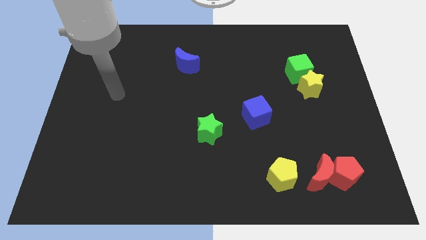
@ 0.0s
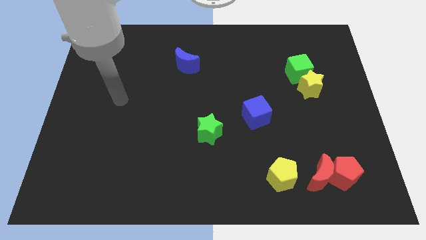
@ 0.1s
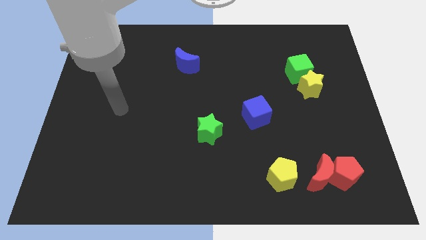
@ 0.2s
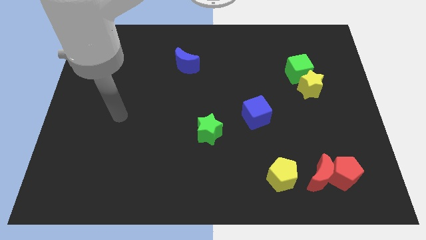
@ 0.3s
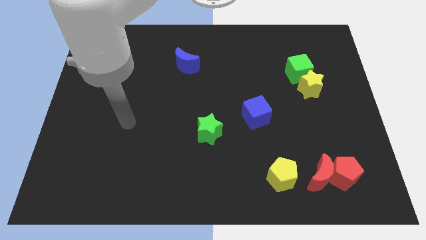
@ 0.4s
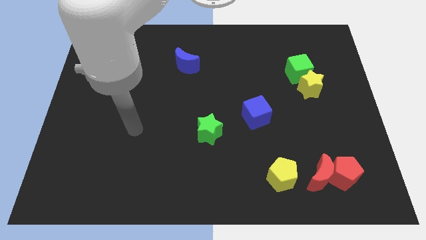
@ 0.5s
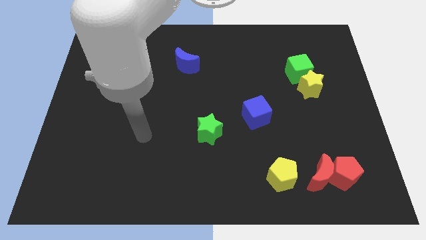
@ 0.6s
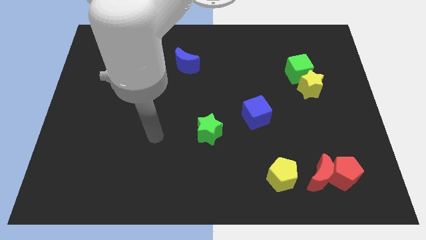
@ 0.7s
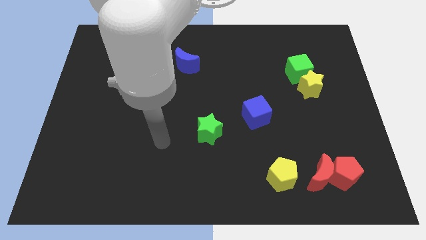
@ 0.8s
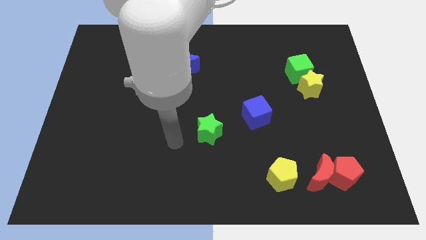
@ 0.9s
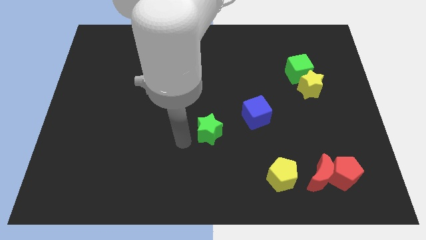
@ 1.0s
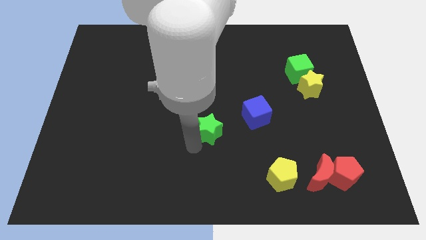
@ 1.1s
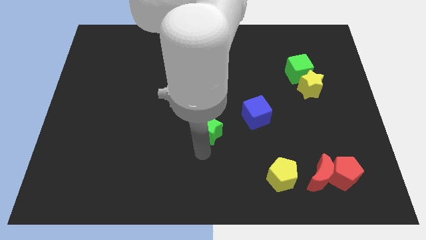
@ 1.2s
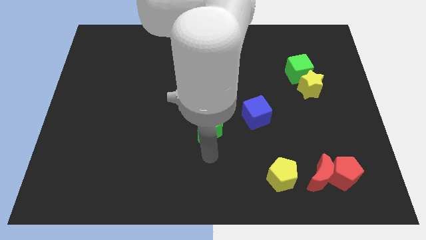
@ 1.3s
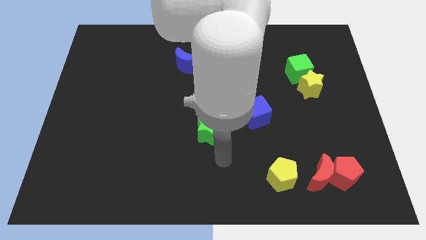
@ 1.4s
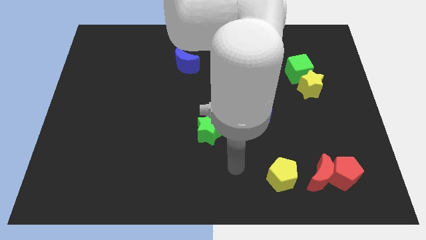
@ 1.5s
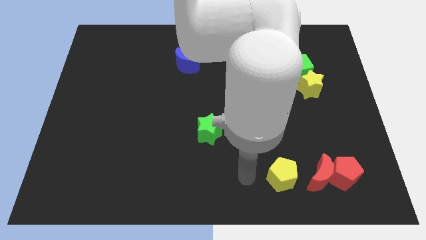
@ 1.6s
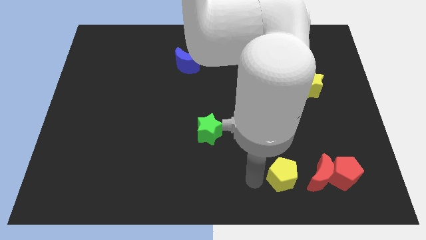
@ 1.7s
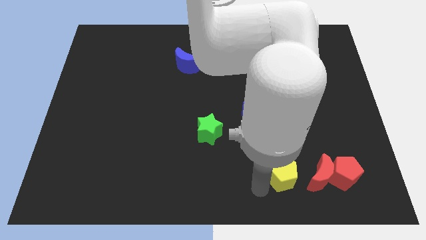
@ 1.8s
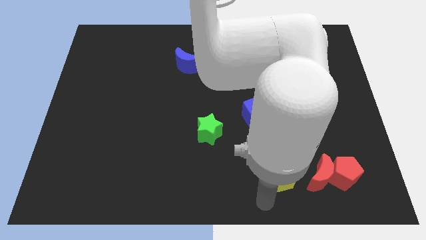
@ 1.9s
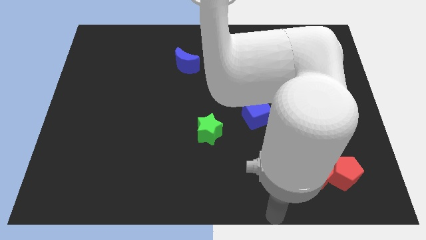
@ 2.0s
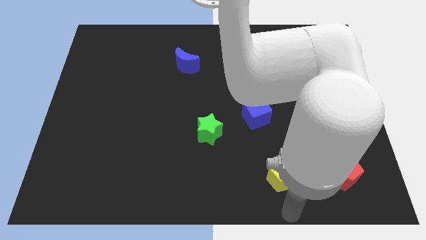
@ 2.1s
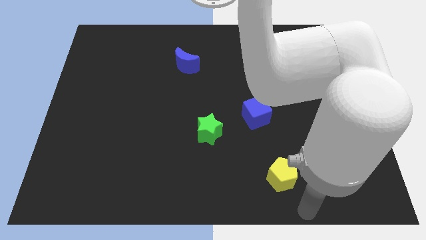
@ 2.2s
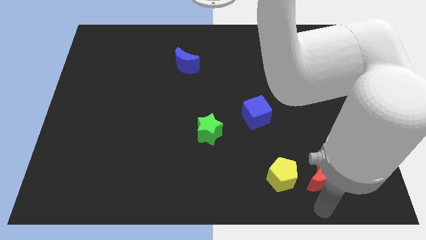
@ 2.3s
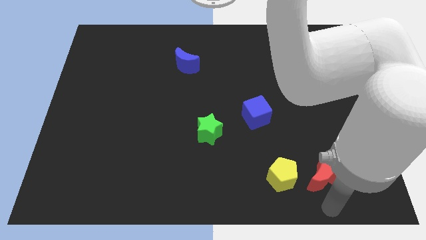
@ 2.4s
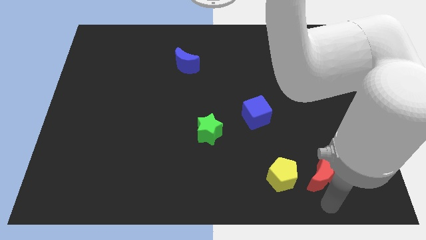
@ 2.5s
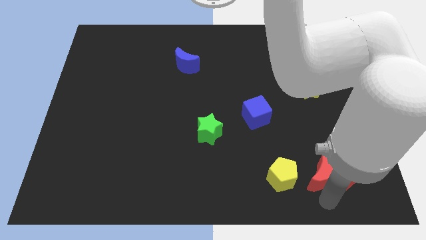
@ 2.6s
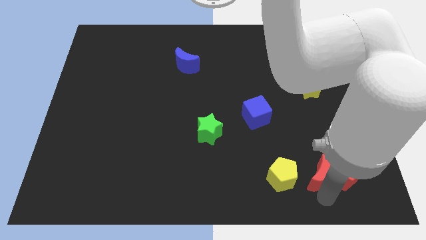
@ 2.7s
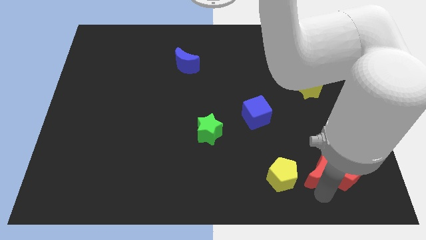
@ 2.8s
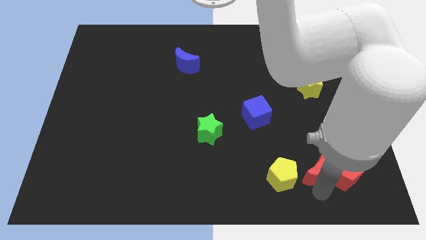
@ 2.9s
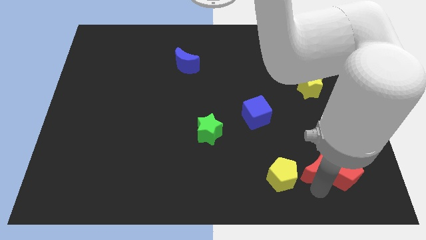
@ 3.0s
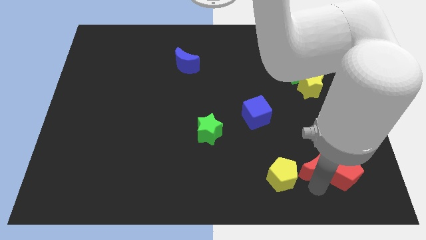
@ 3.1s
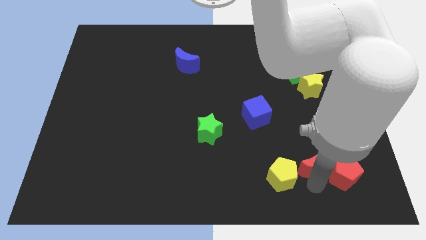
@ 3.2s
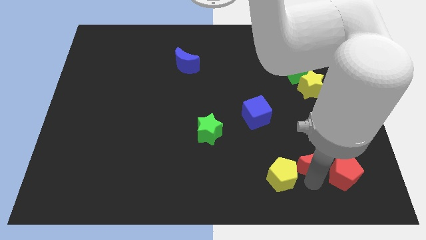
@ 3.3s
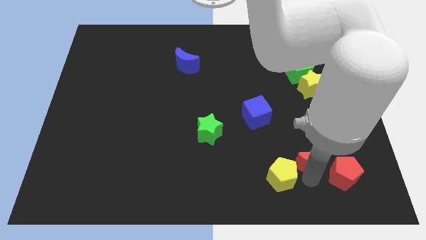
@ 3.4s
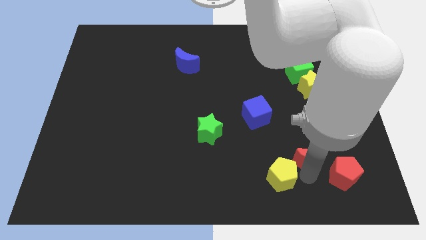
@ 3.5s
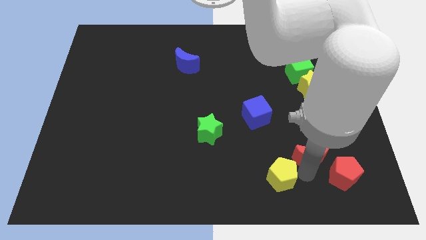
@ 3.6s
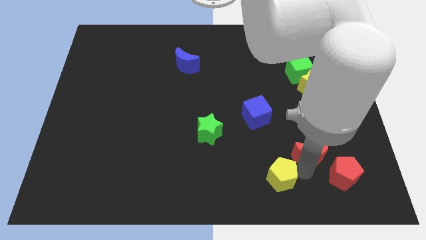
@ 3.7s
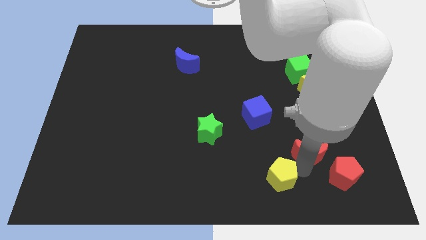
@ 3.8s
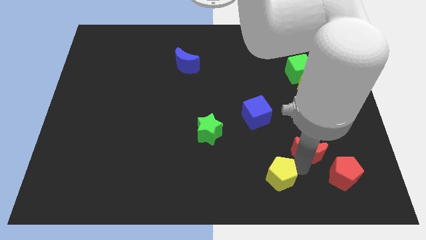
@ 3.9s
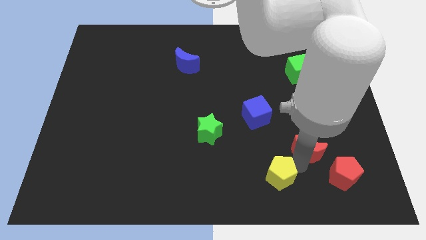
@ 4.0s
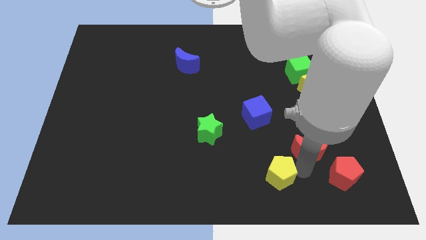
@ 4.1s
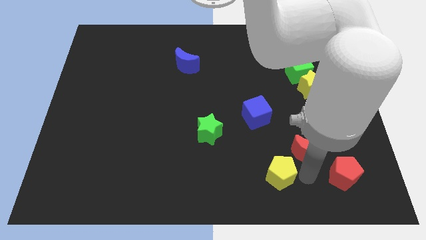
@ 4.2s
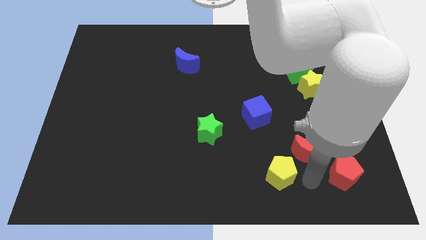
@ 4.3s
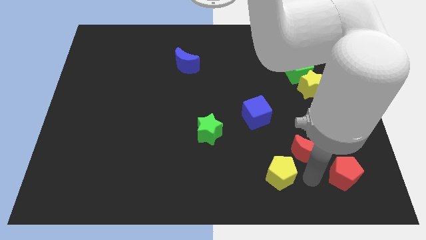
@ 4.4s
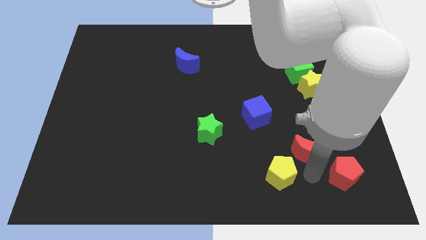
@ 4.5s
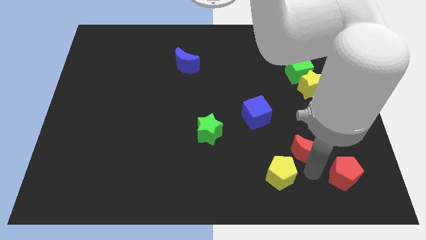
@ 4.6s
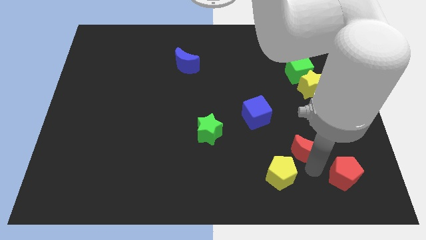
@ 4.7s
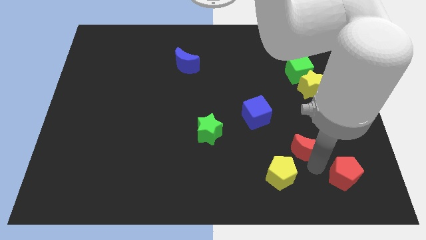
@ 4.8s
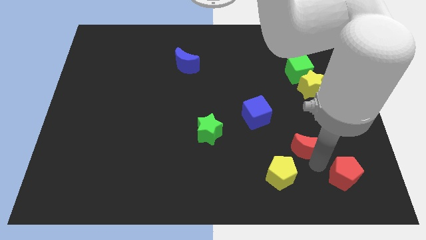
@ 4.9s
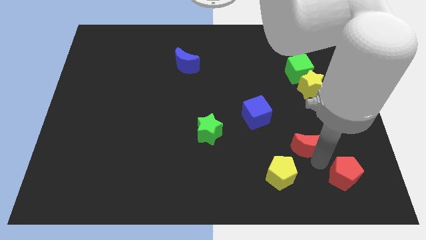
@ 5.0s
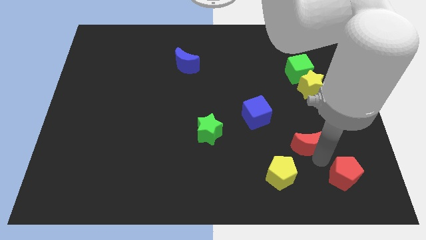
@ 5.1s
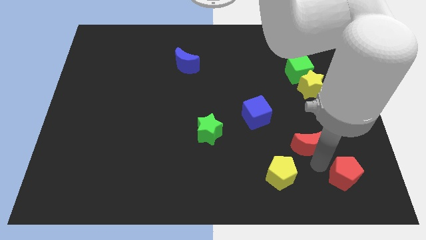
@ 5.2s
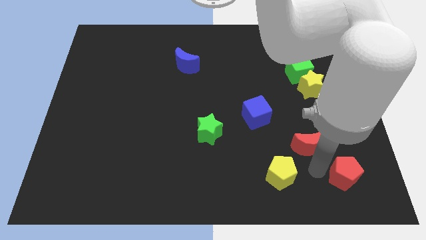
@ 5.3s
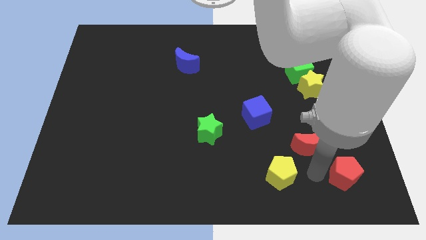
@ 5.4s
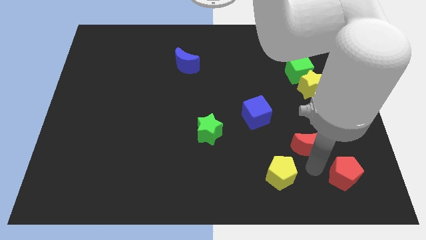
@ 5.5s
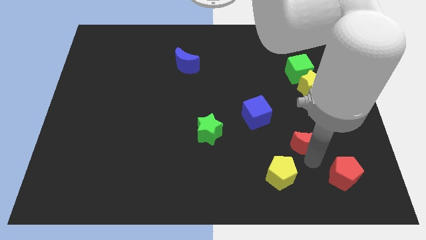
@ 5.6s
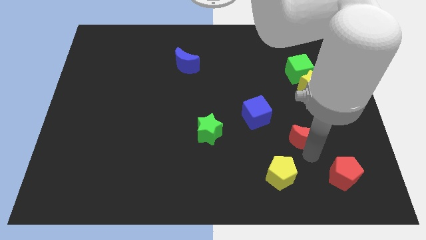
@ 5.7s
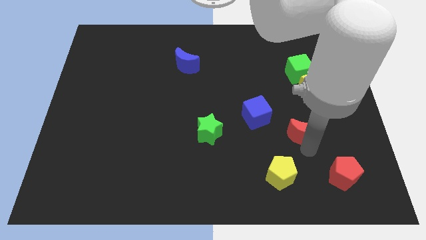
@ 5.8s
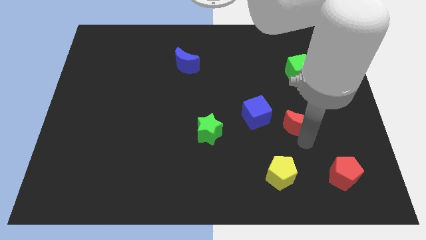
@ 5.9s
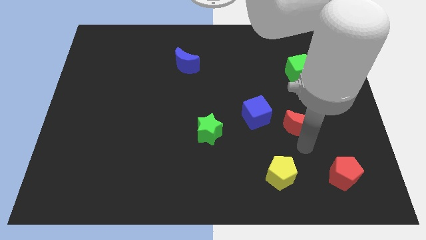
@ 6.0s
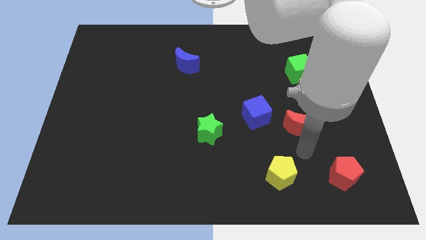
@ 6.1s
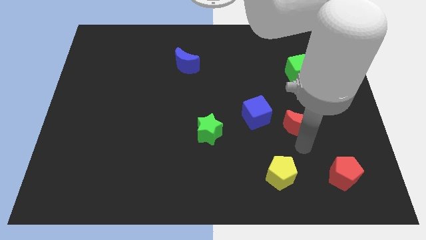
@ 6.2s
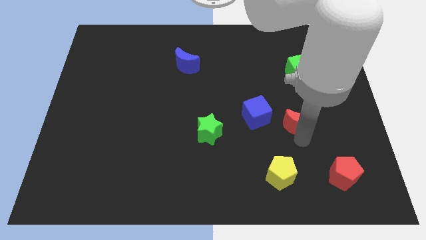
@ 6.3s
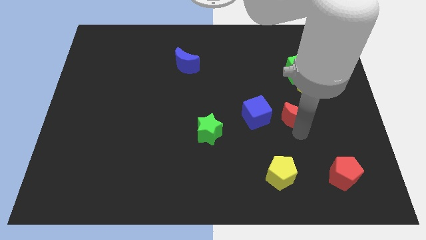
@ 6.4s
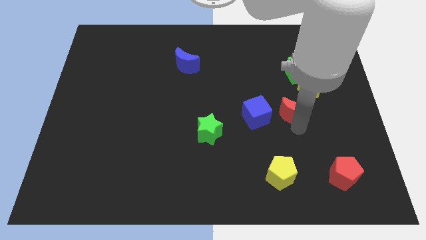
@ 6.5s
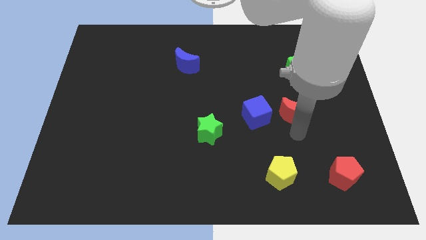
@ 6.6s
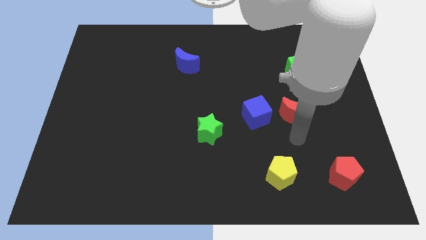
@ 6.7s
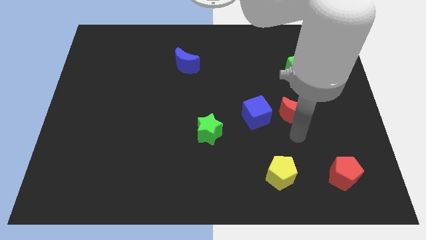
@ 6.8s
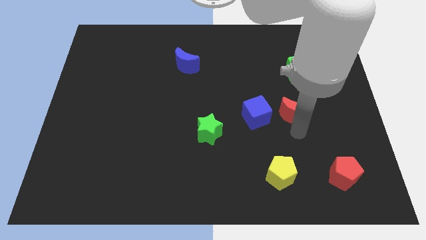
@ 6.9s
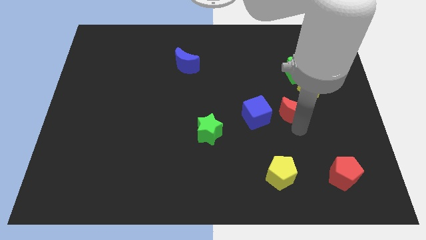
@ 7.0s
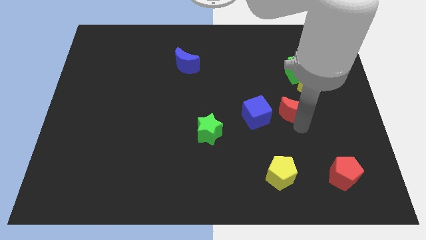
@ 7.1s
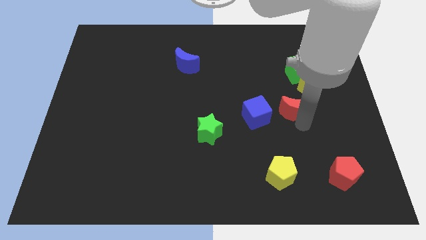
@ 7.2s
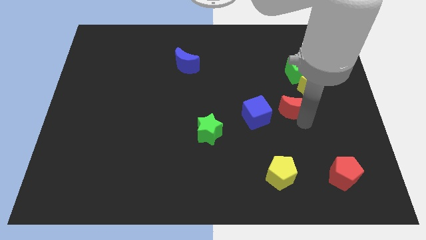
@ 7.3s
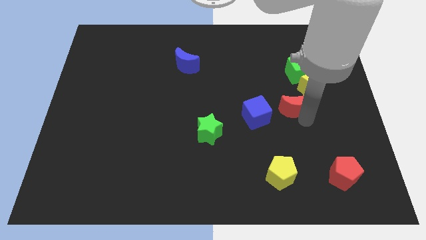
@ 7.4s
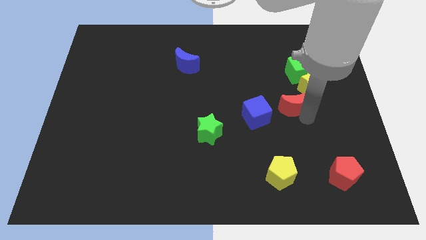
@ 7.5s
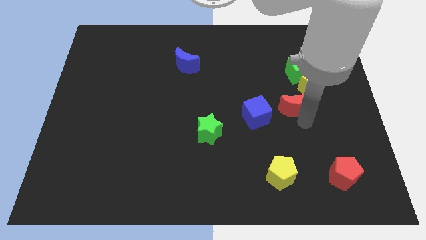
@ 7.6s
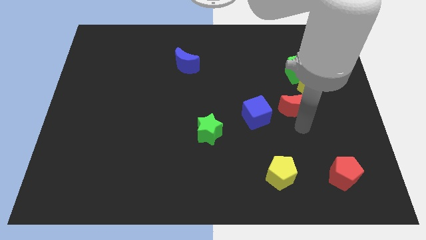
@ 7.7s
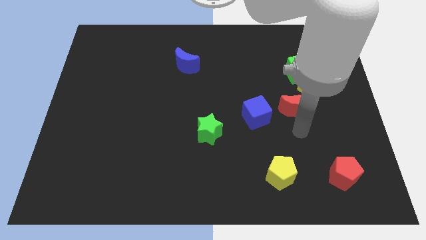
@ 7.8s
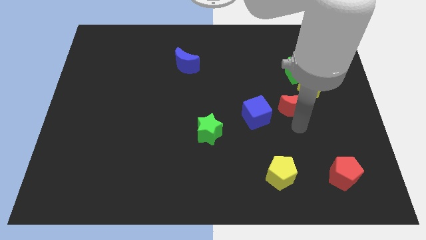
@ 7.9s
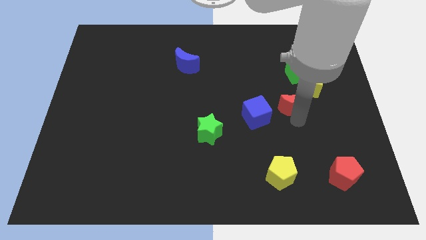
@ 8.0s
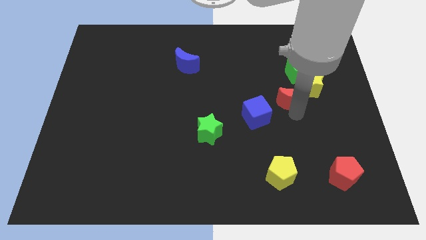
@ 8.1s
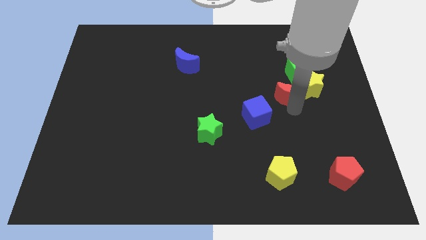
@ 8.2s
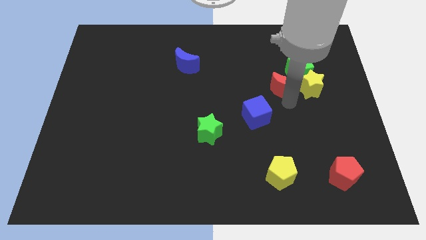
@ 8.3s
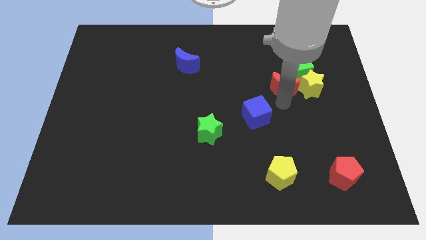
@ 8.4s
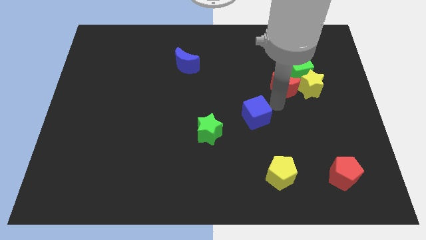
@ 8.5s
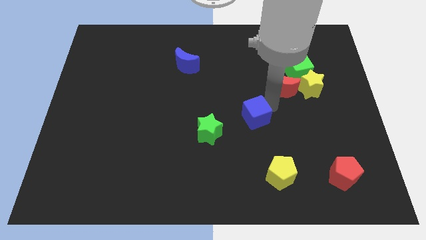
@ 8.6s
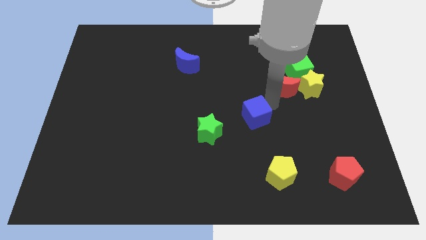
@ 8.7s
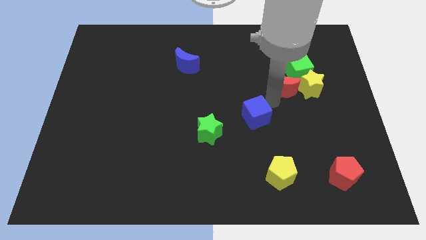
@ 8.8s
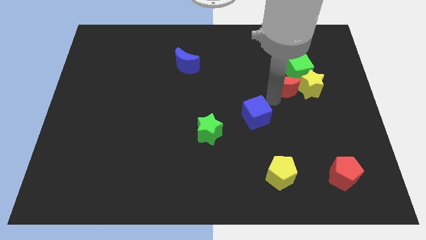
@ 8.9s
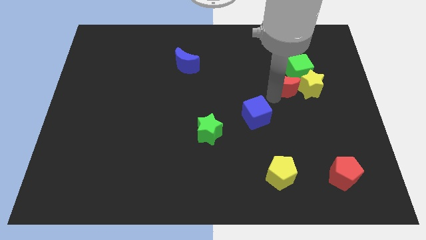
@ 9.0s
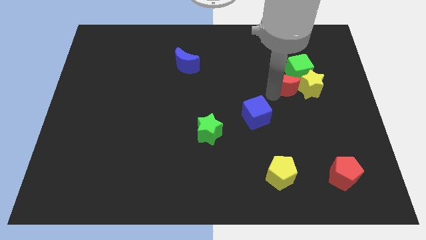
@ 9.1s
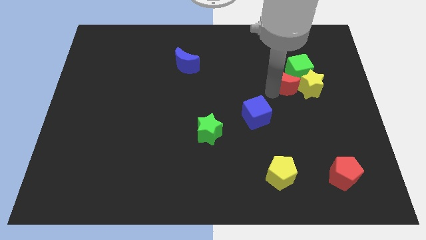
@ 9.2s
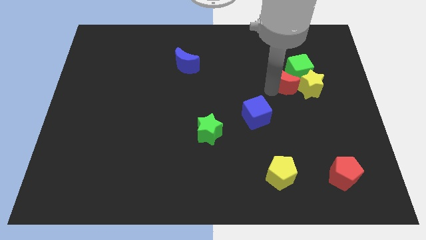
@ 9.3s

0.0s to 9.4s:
slide the red moon to the green cube
